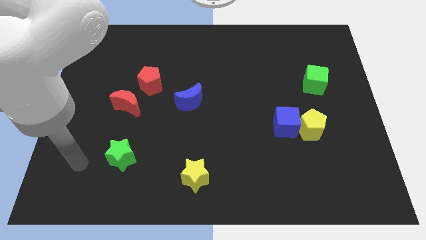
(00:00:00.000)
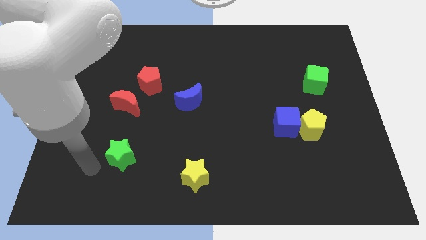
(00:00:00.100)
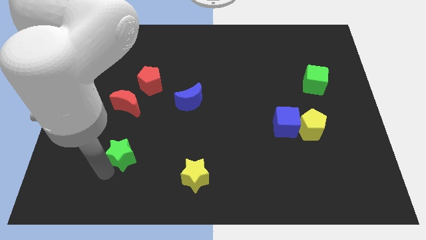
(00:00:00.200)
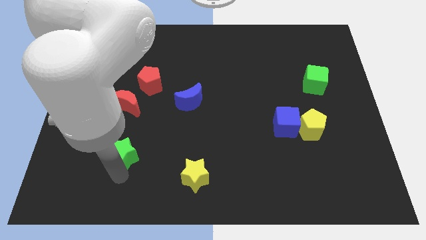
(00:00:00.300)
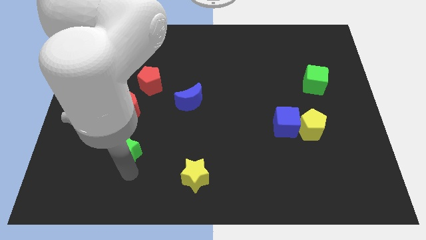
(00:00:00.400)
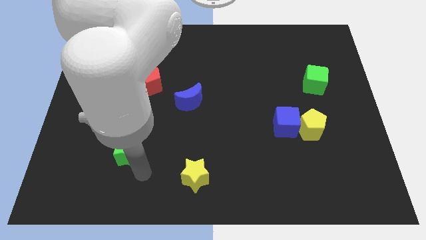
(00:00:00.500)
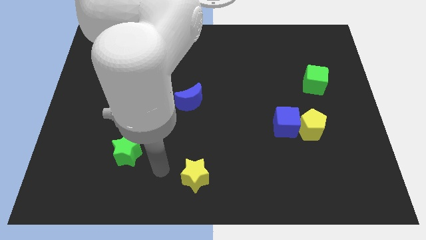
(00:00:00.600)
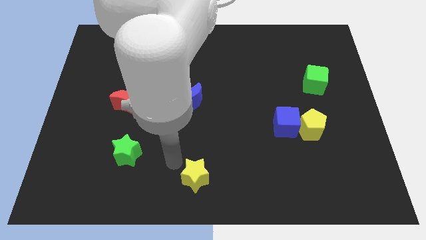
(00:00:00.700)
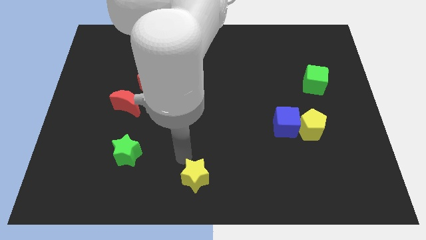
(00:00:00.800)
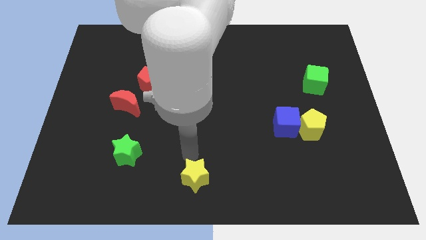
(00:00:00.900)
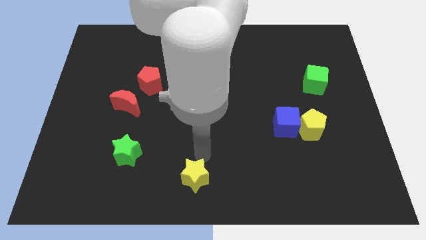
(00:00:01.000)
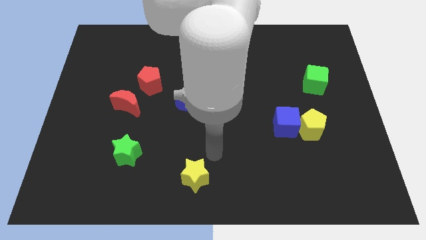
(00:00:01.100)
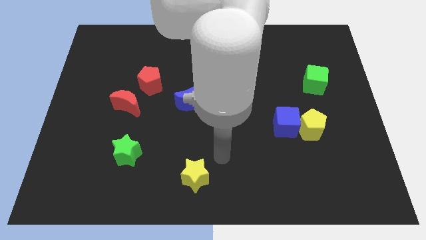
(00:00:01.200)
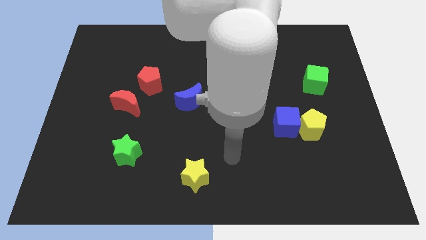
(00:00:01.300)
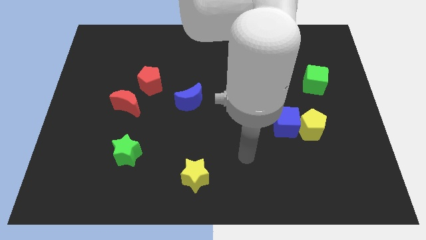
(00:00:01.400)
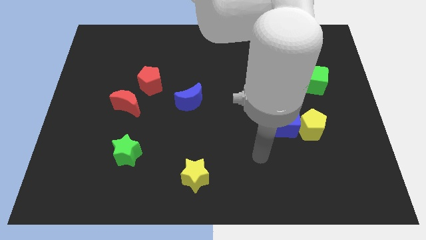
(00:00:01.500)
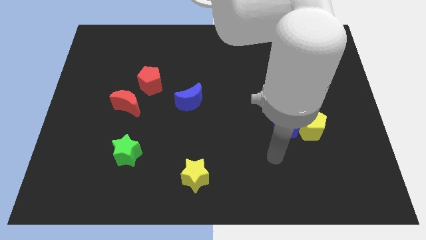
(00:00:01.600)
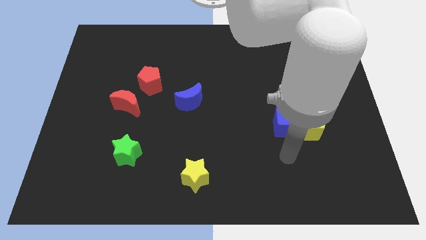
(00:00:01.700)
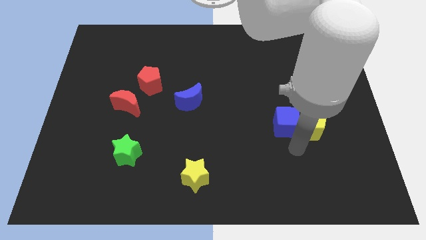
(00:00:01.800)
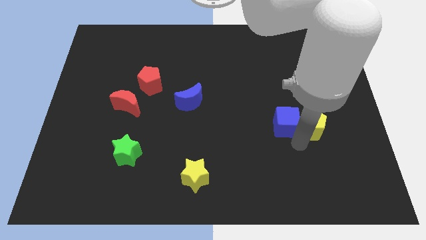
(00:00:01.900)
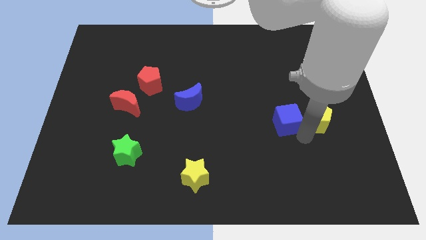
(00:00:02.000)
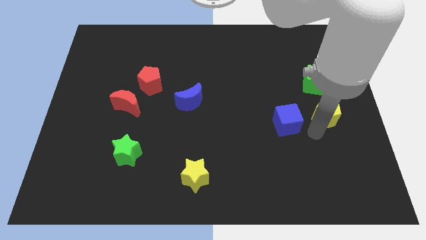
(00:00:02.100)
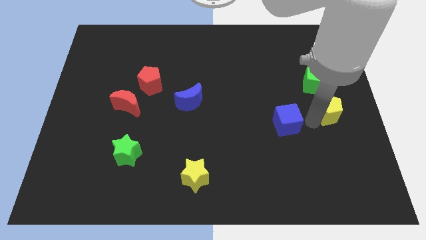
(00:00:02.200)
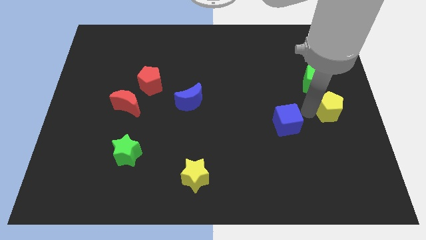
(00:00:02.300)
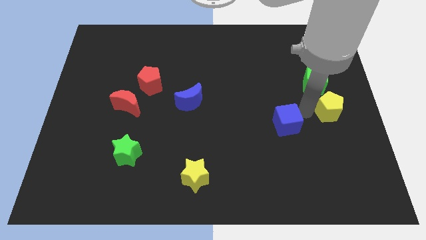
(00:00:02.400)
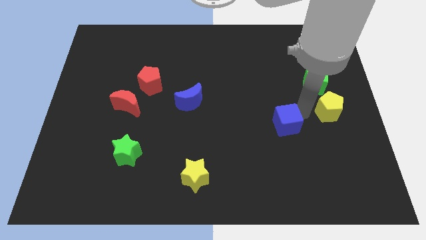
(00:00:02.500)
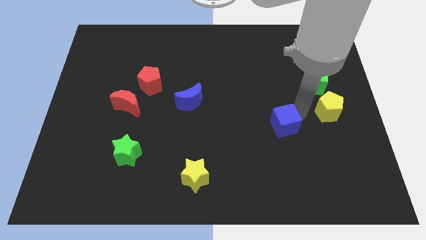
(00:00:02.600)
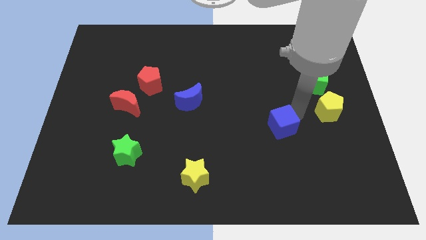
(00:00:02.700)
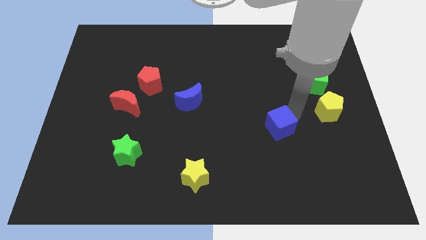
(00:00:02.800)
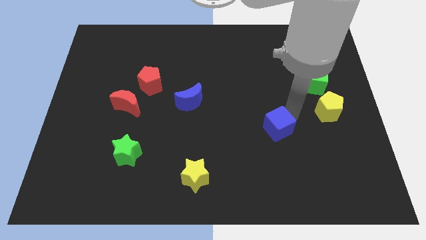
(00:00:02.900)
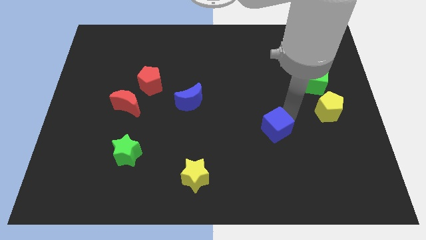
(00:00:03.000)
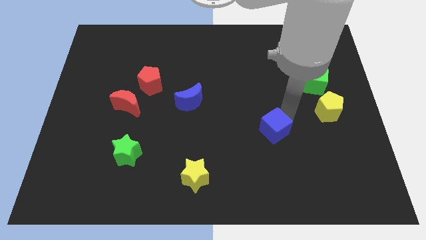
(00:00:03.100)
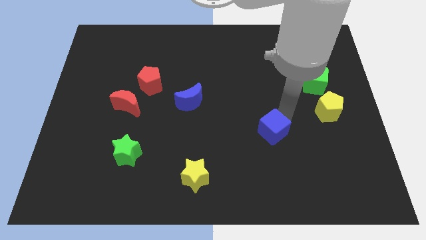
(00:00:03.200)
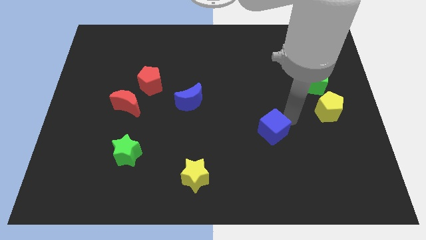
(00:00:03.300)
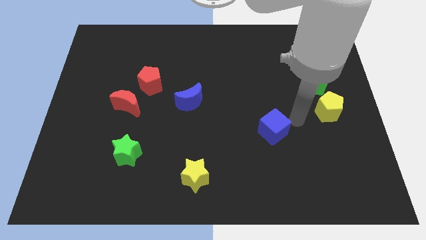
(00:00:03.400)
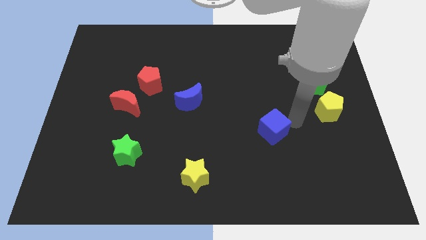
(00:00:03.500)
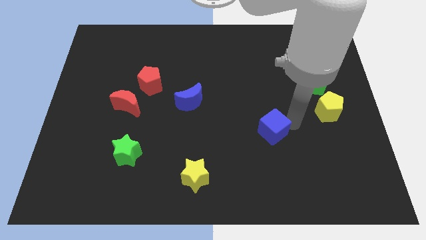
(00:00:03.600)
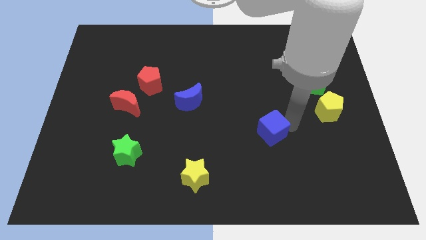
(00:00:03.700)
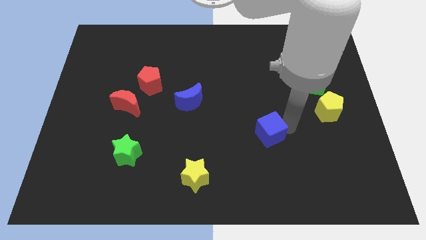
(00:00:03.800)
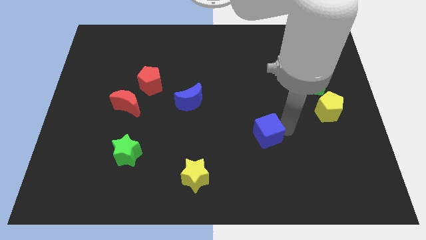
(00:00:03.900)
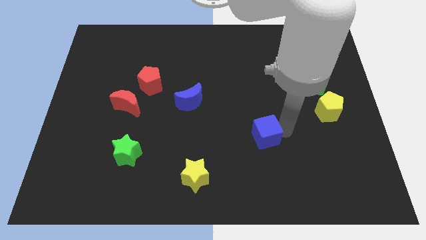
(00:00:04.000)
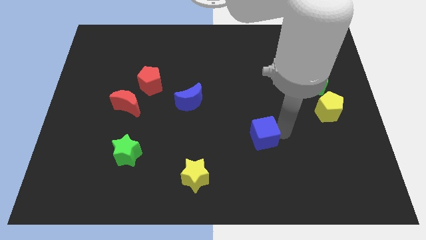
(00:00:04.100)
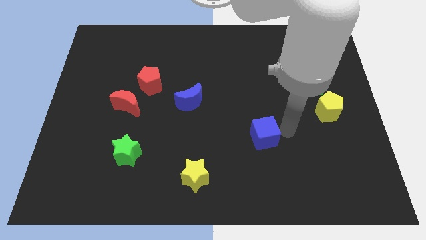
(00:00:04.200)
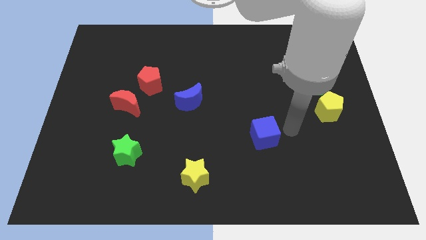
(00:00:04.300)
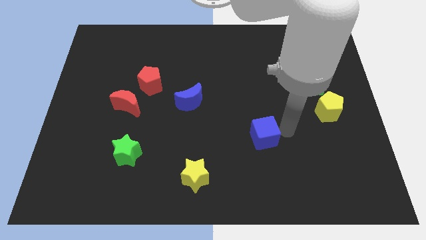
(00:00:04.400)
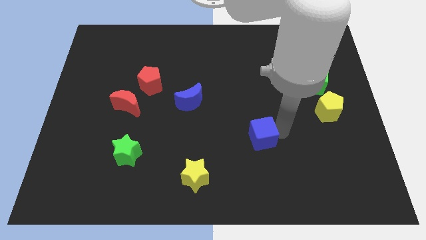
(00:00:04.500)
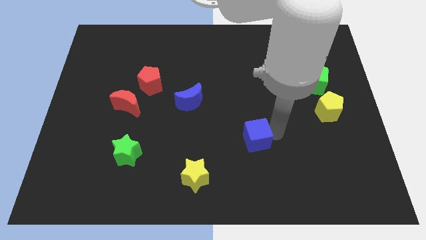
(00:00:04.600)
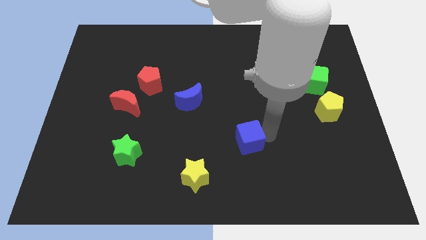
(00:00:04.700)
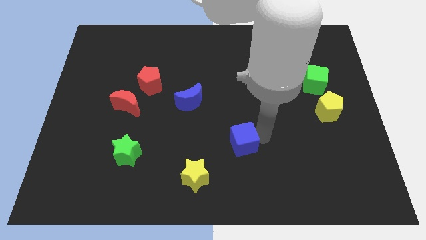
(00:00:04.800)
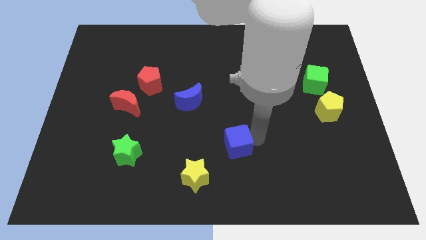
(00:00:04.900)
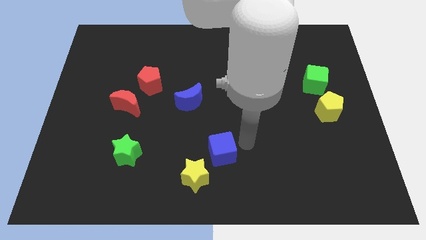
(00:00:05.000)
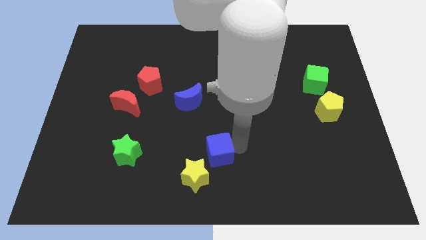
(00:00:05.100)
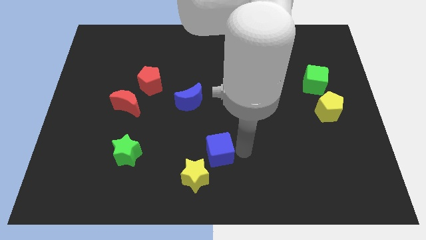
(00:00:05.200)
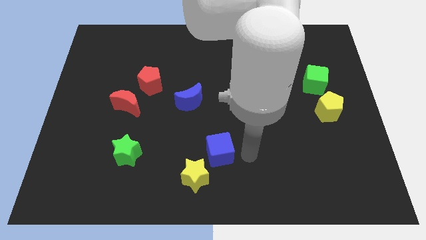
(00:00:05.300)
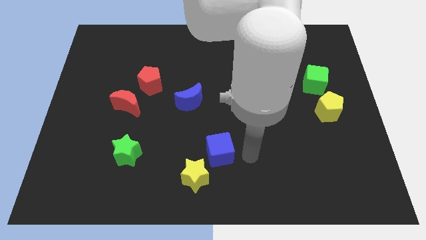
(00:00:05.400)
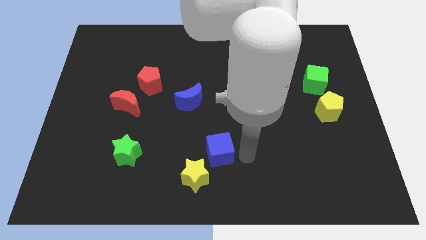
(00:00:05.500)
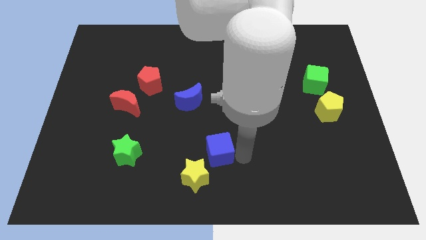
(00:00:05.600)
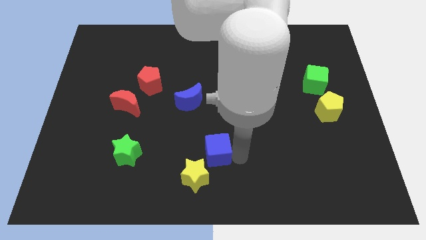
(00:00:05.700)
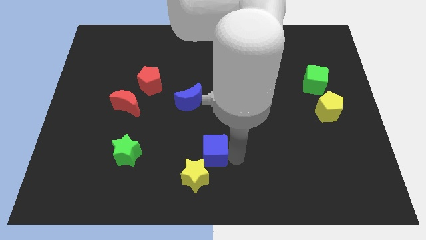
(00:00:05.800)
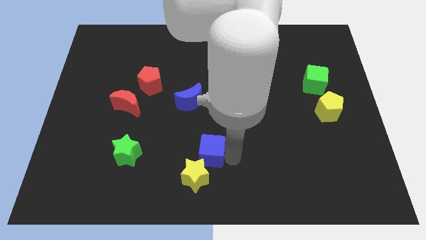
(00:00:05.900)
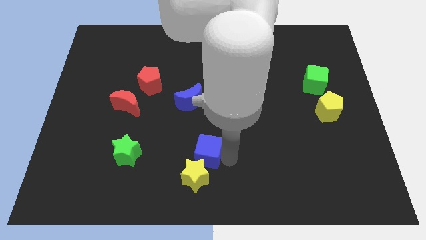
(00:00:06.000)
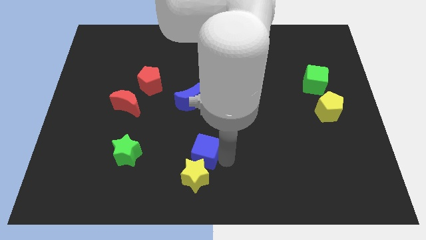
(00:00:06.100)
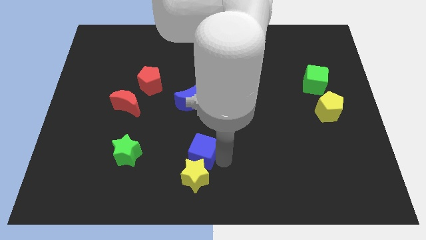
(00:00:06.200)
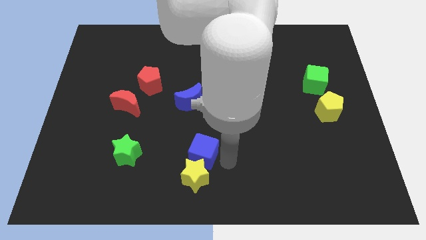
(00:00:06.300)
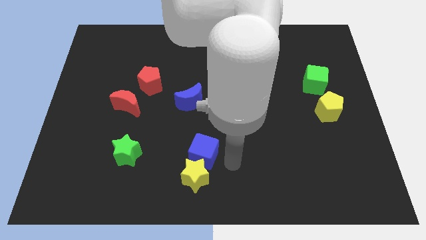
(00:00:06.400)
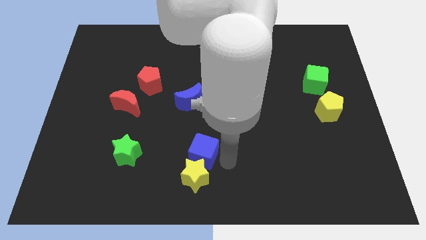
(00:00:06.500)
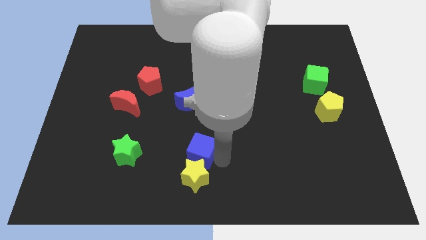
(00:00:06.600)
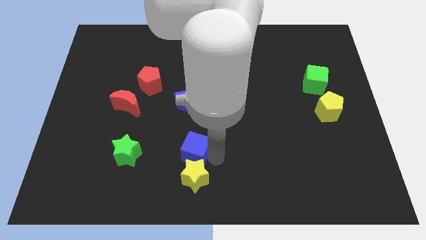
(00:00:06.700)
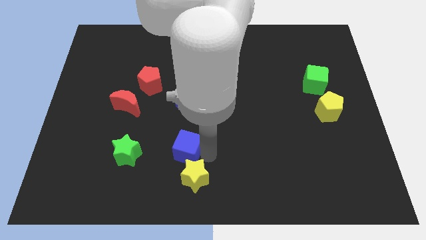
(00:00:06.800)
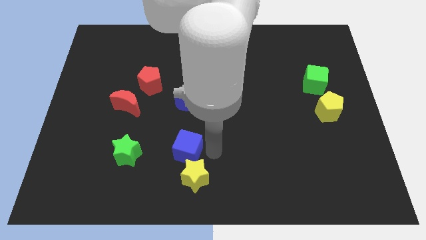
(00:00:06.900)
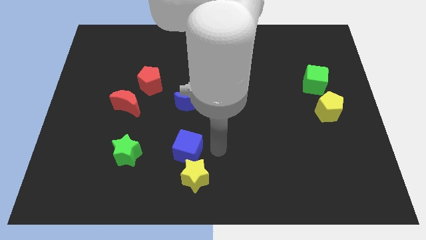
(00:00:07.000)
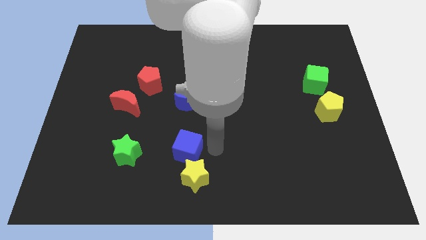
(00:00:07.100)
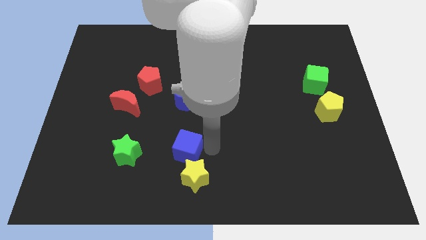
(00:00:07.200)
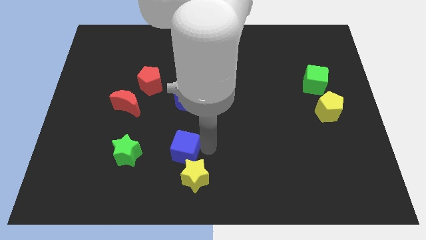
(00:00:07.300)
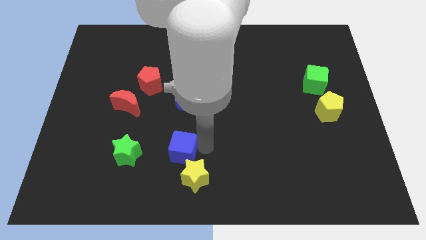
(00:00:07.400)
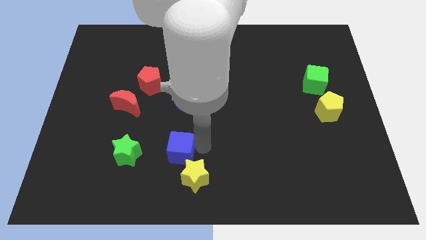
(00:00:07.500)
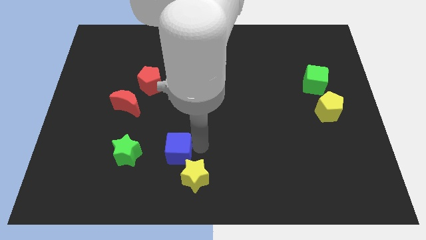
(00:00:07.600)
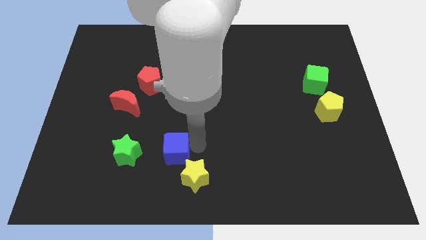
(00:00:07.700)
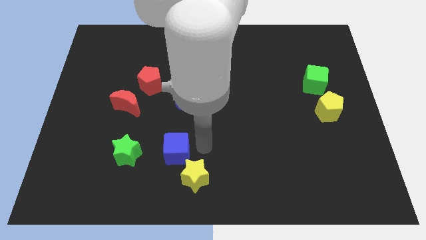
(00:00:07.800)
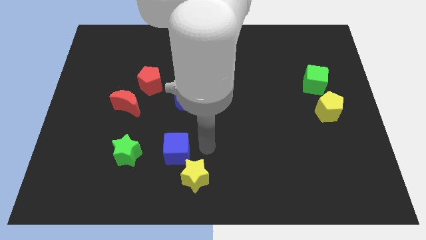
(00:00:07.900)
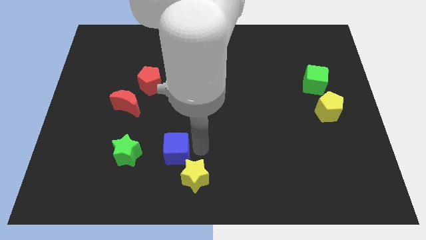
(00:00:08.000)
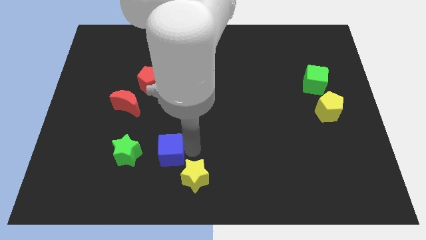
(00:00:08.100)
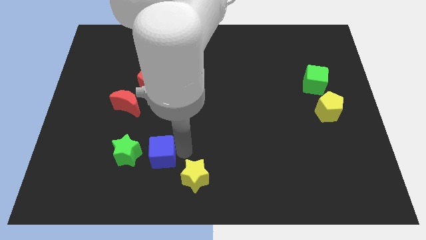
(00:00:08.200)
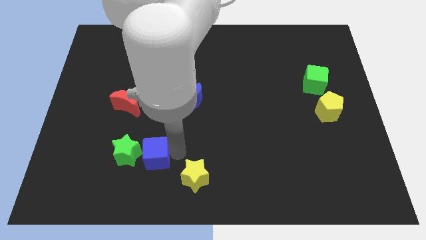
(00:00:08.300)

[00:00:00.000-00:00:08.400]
push the blue cube next to the green star
